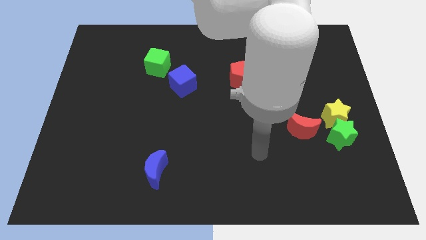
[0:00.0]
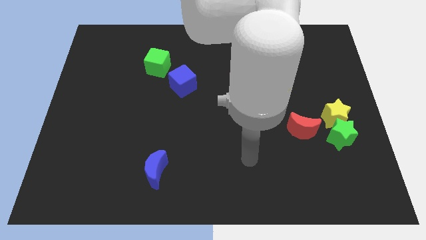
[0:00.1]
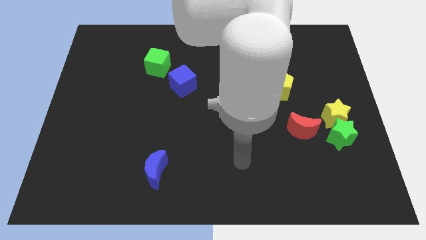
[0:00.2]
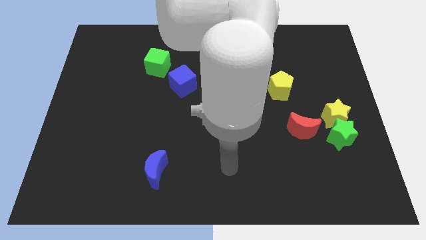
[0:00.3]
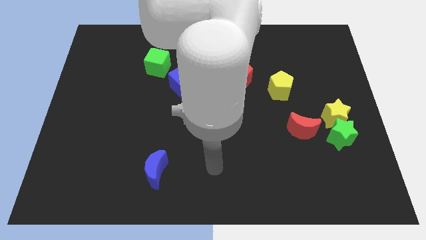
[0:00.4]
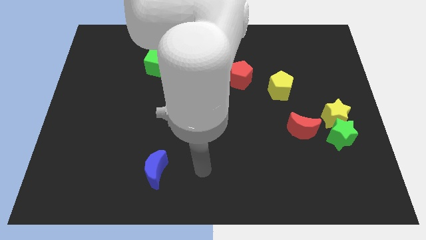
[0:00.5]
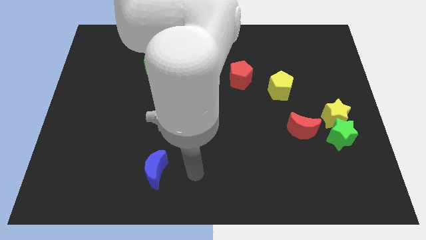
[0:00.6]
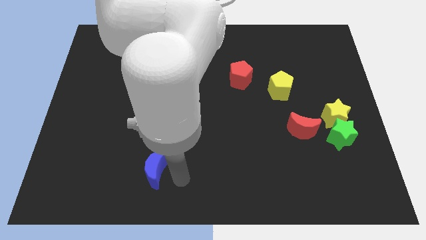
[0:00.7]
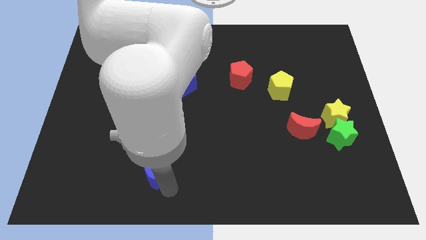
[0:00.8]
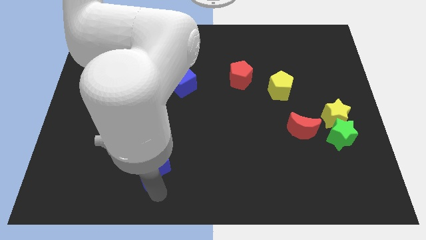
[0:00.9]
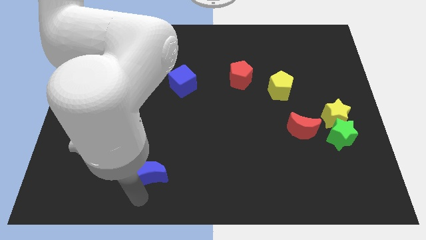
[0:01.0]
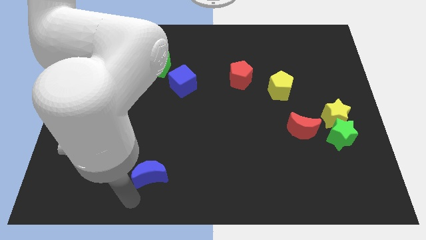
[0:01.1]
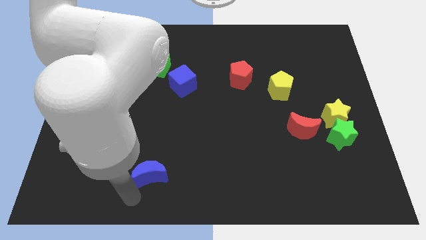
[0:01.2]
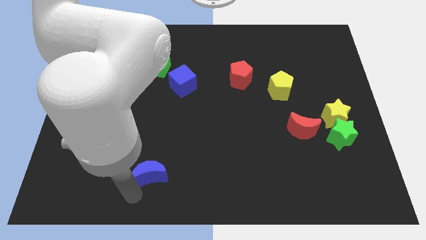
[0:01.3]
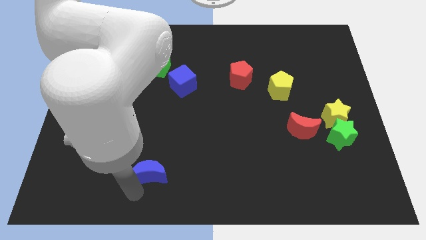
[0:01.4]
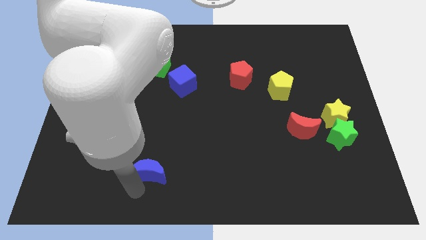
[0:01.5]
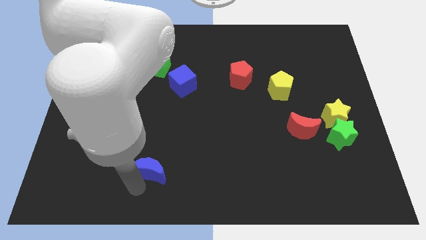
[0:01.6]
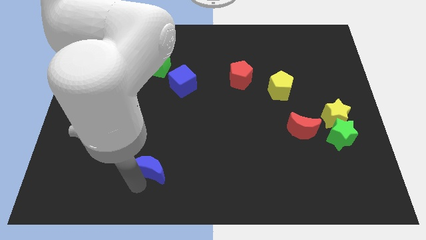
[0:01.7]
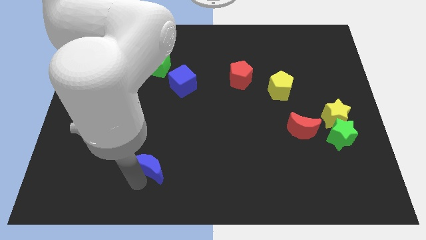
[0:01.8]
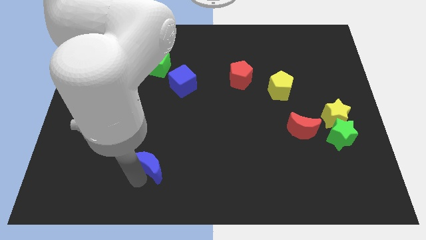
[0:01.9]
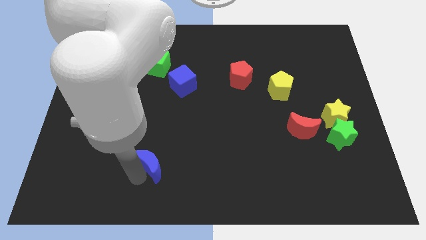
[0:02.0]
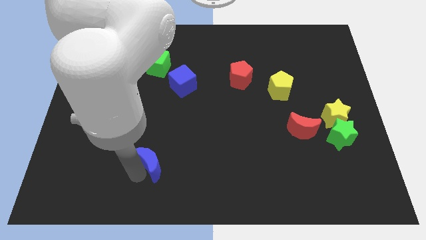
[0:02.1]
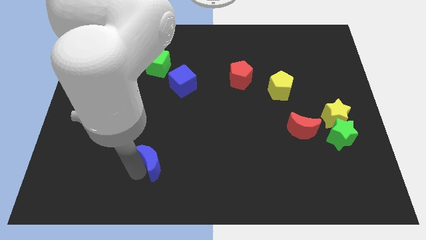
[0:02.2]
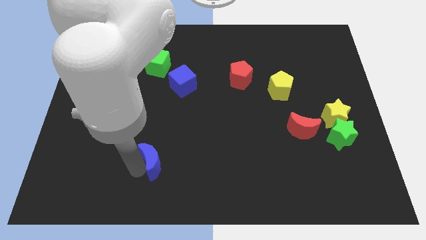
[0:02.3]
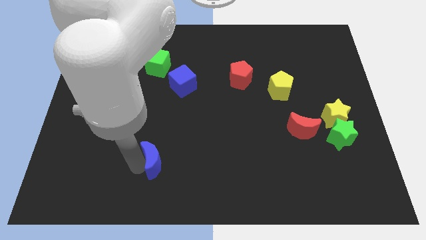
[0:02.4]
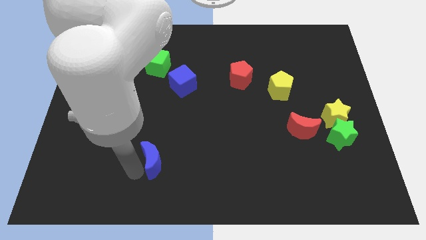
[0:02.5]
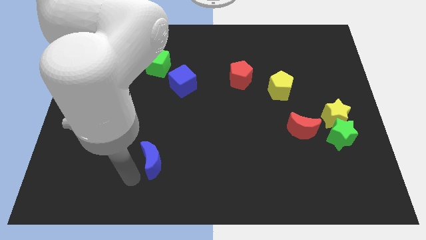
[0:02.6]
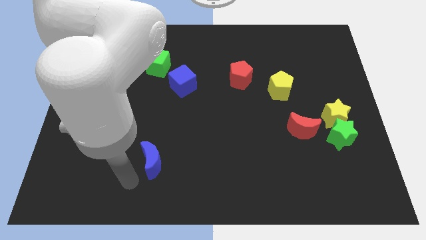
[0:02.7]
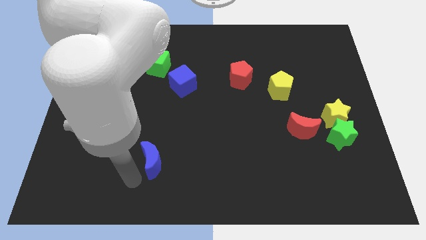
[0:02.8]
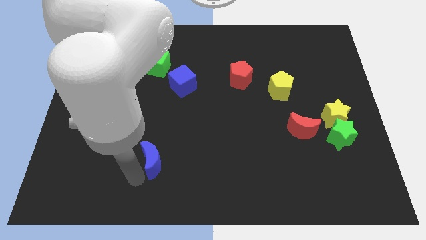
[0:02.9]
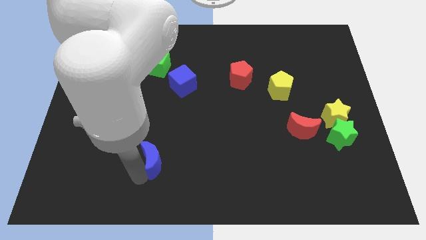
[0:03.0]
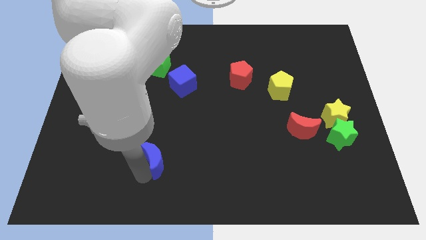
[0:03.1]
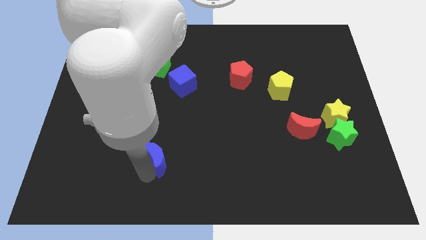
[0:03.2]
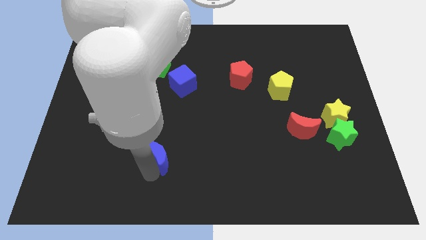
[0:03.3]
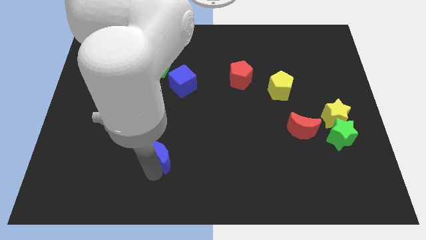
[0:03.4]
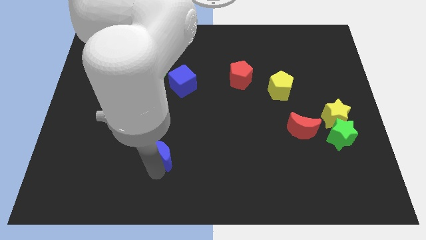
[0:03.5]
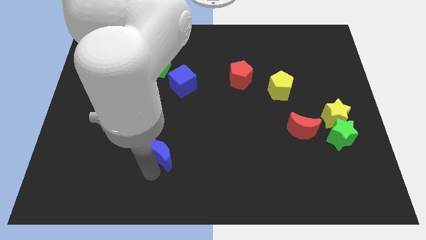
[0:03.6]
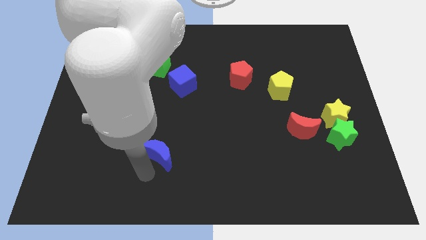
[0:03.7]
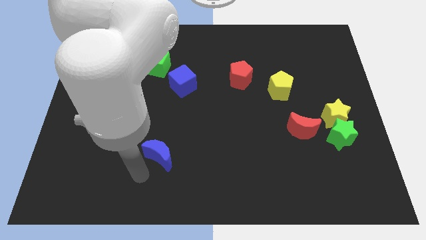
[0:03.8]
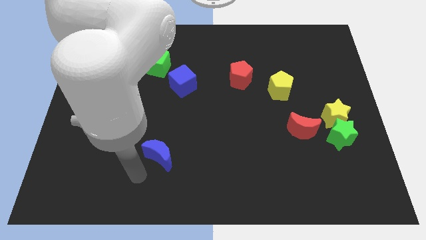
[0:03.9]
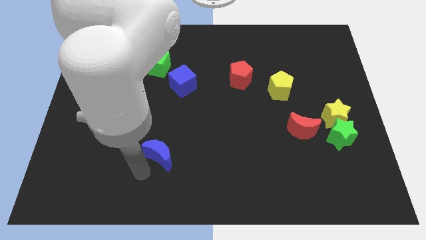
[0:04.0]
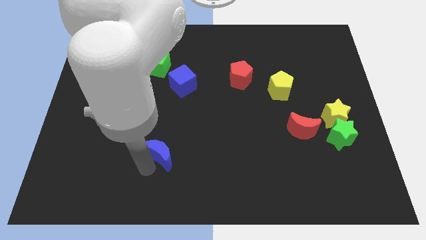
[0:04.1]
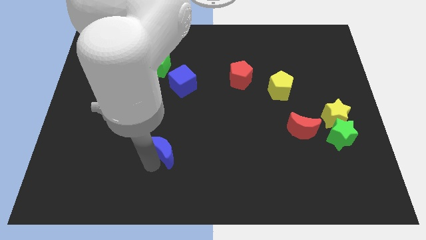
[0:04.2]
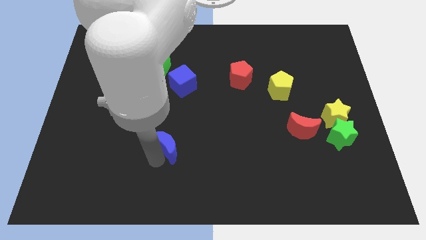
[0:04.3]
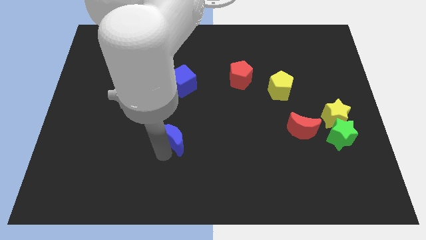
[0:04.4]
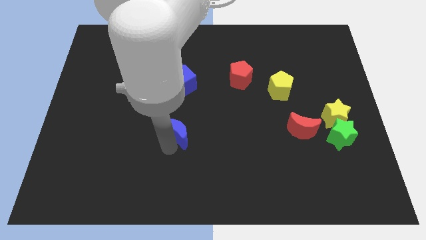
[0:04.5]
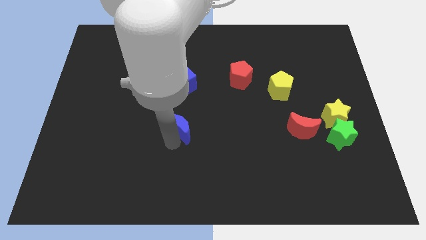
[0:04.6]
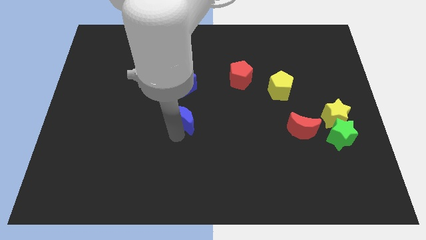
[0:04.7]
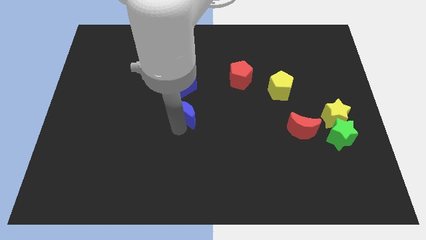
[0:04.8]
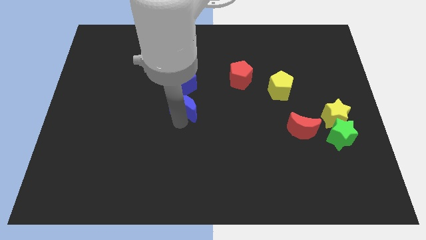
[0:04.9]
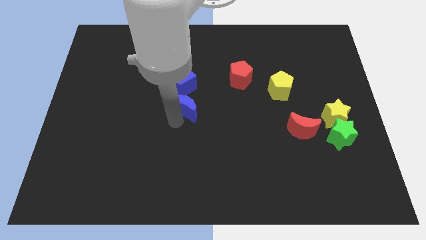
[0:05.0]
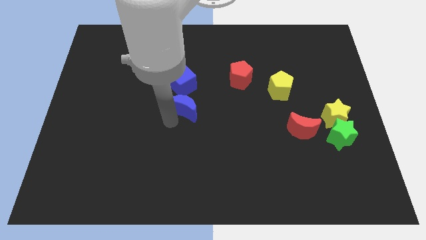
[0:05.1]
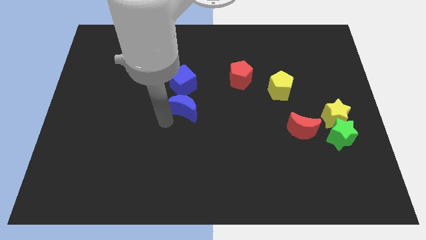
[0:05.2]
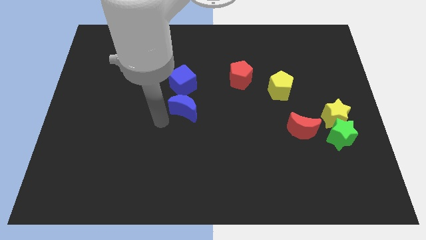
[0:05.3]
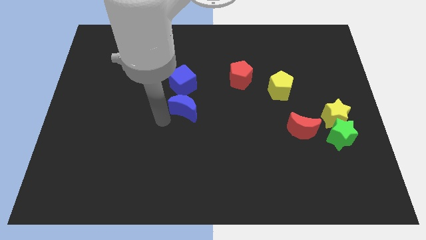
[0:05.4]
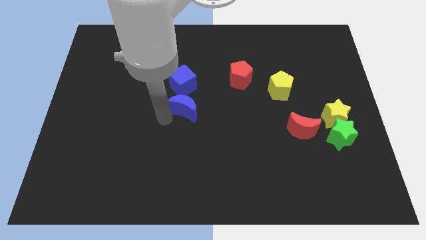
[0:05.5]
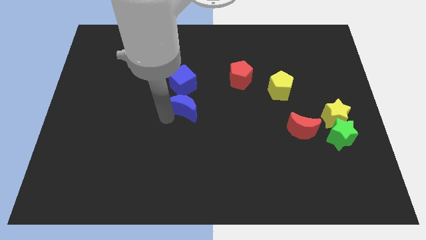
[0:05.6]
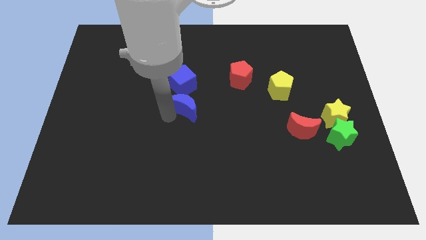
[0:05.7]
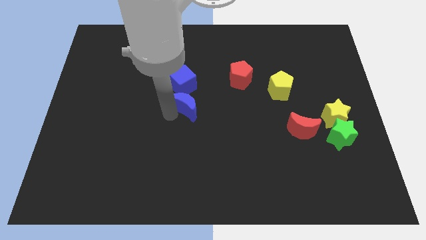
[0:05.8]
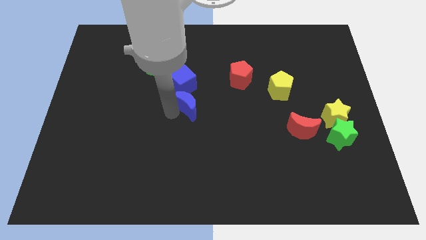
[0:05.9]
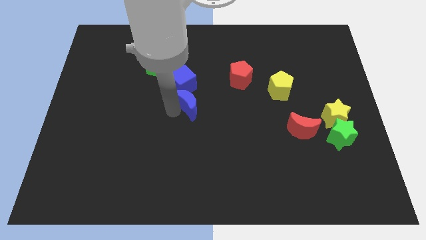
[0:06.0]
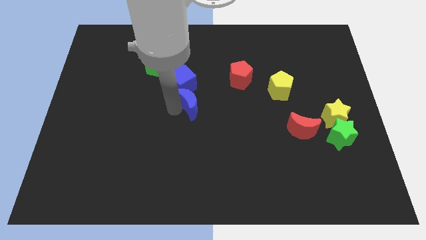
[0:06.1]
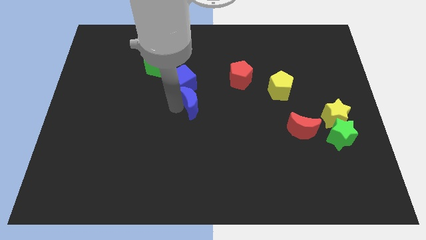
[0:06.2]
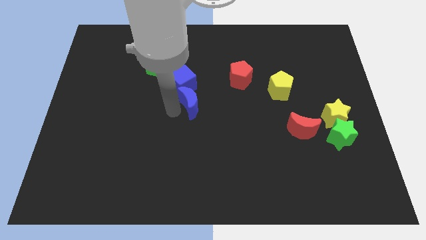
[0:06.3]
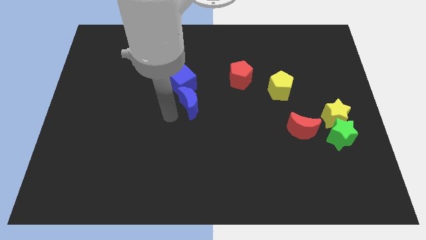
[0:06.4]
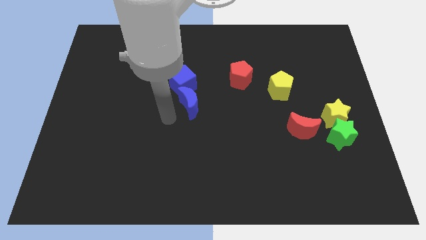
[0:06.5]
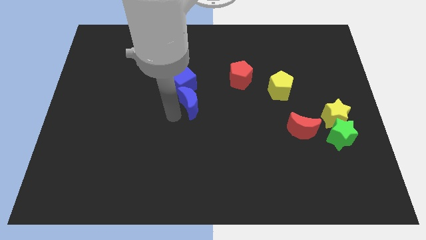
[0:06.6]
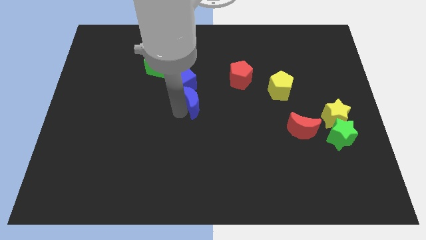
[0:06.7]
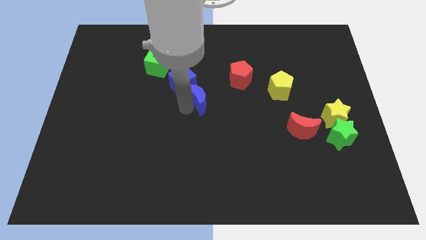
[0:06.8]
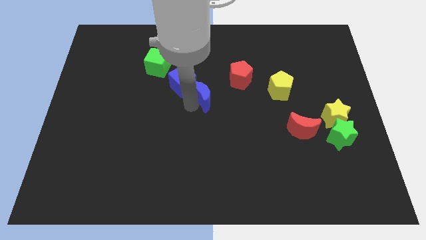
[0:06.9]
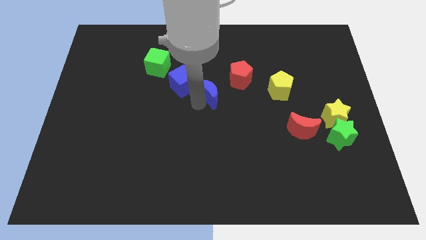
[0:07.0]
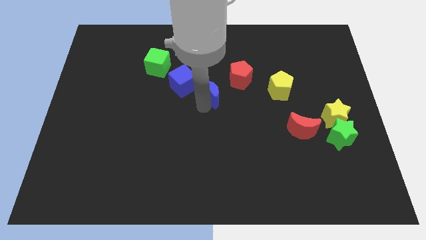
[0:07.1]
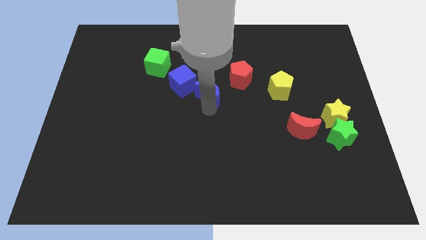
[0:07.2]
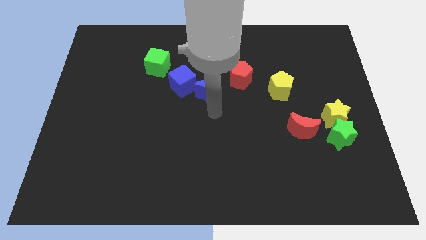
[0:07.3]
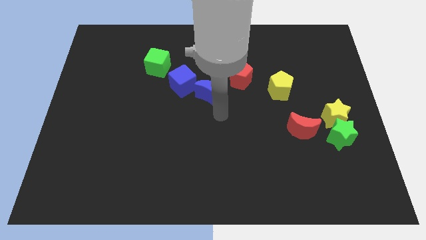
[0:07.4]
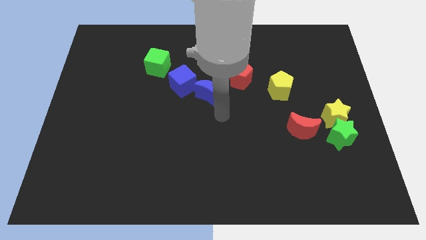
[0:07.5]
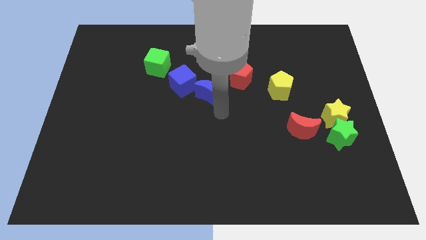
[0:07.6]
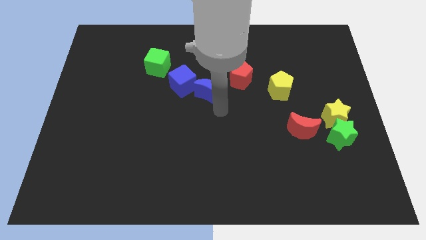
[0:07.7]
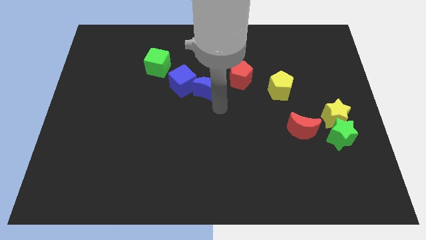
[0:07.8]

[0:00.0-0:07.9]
move the blue moon to the left side of the red pentagon
